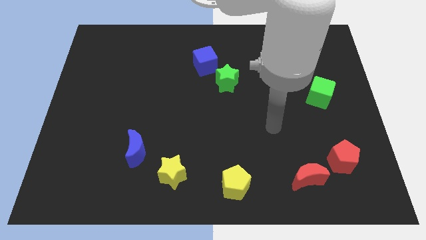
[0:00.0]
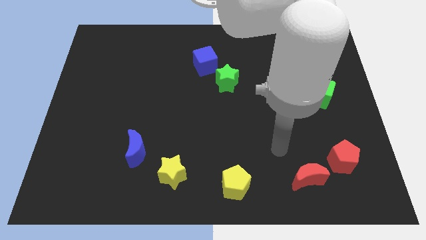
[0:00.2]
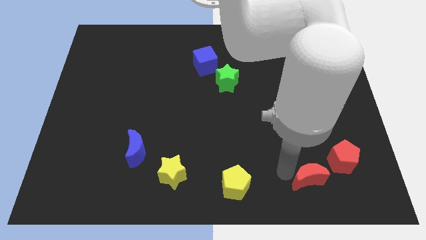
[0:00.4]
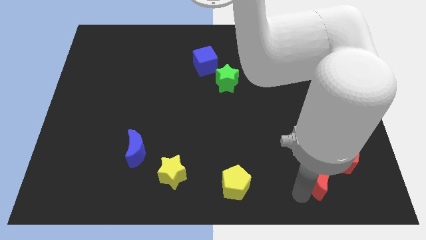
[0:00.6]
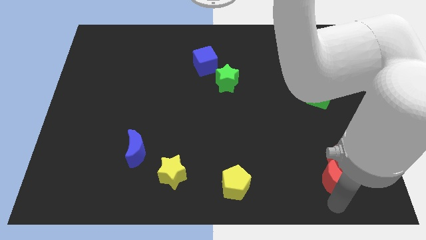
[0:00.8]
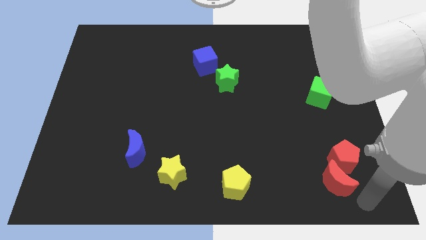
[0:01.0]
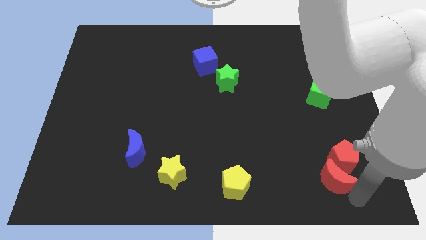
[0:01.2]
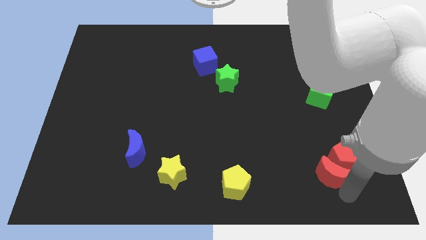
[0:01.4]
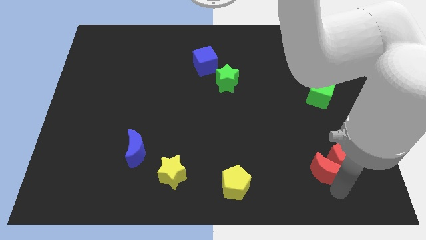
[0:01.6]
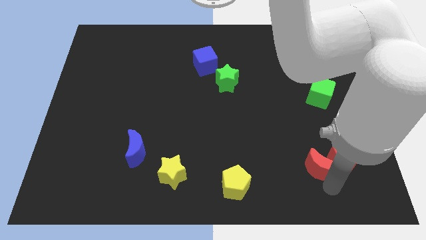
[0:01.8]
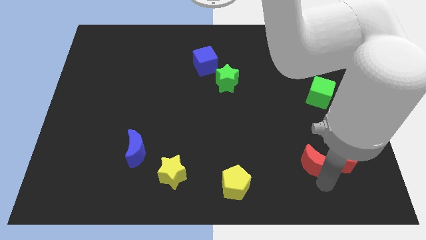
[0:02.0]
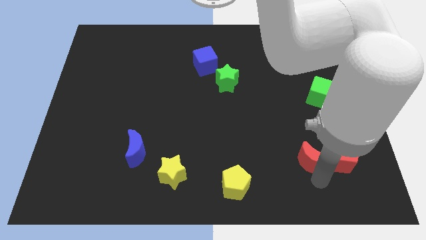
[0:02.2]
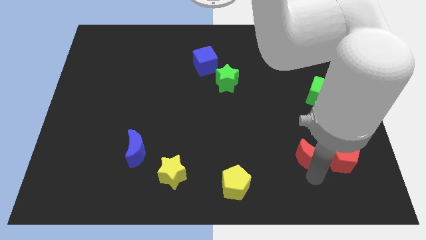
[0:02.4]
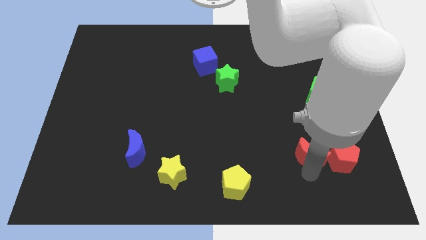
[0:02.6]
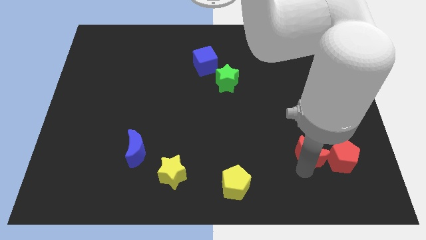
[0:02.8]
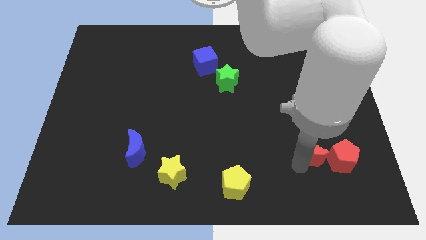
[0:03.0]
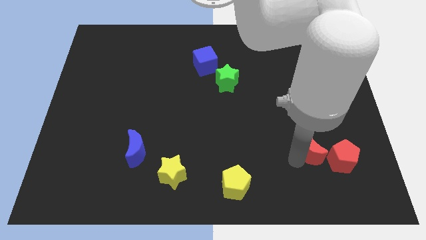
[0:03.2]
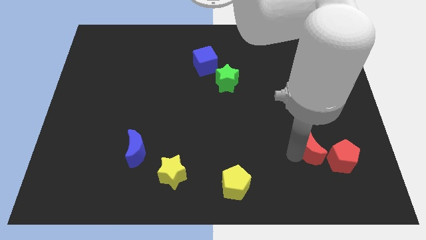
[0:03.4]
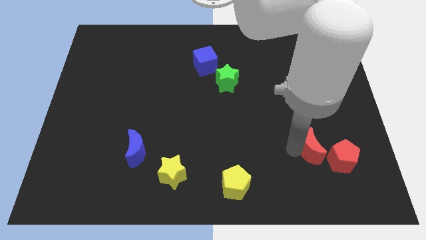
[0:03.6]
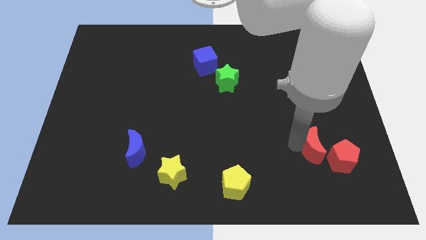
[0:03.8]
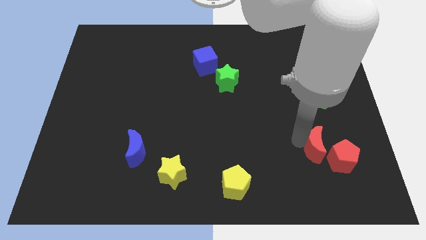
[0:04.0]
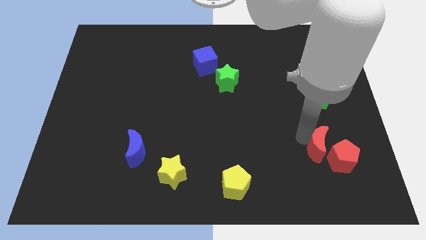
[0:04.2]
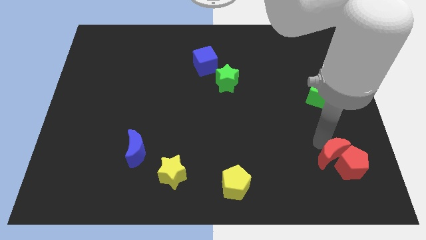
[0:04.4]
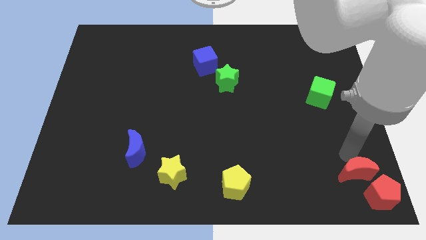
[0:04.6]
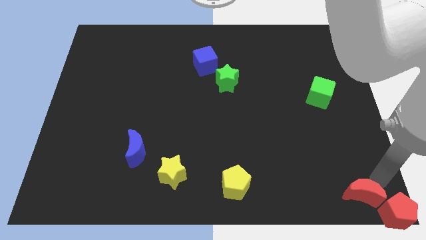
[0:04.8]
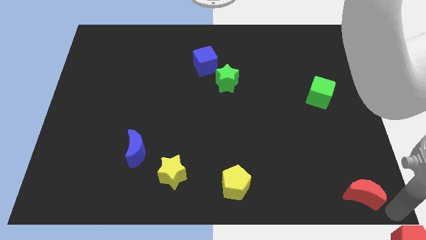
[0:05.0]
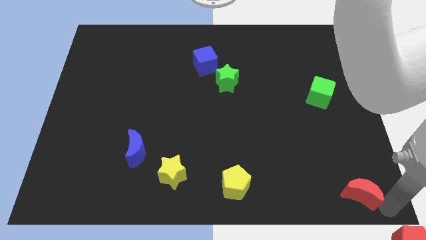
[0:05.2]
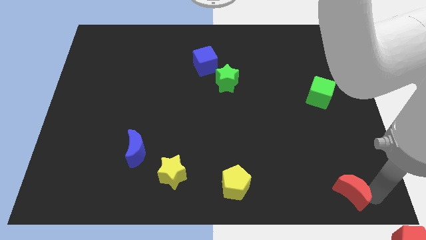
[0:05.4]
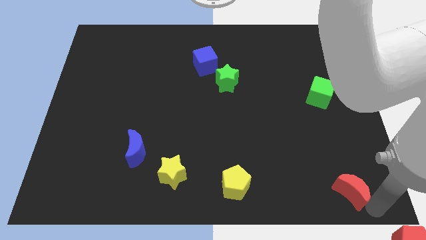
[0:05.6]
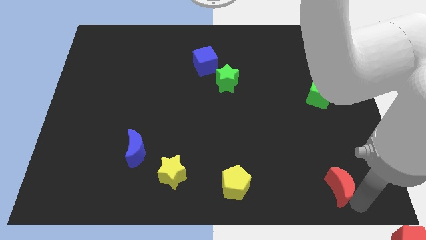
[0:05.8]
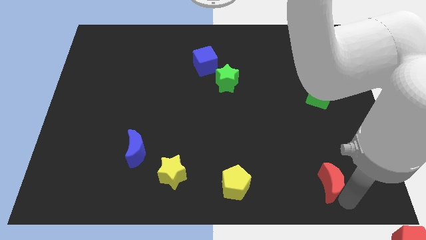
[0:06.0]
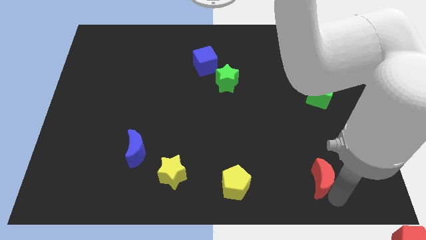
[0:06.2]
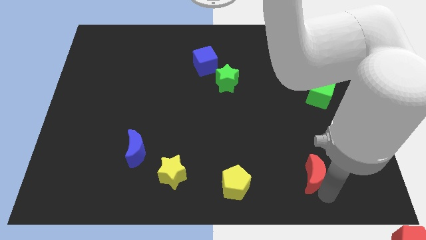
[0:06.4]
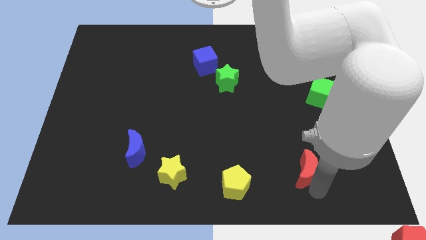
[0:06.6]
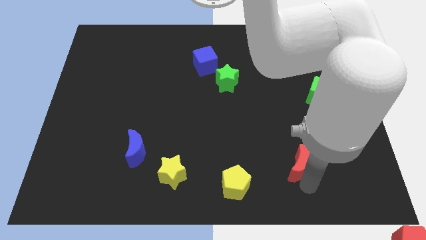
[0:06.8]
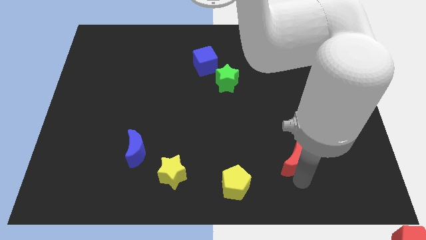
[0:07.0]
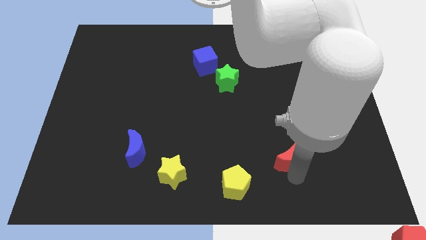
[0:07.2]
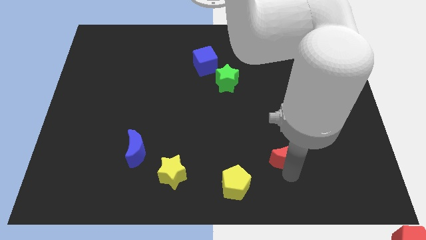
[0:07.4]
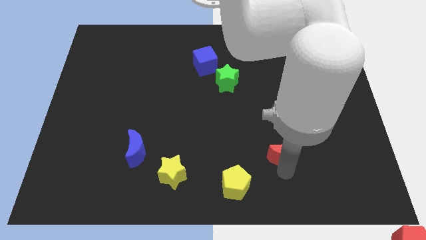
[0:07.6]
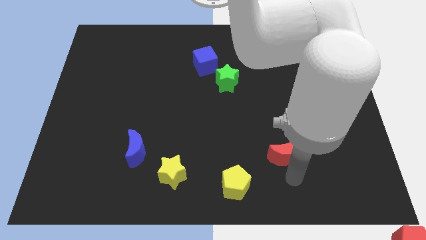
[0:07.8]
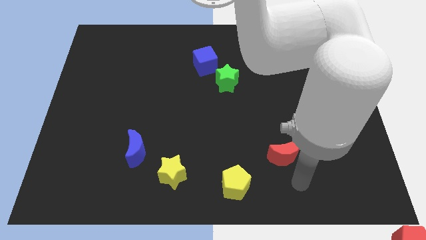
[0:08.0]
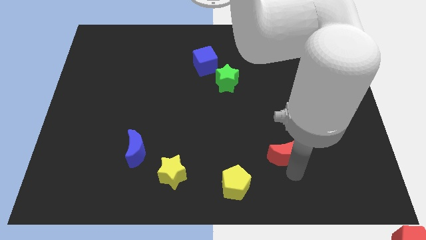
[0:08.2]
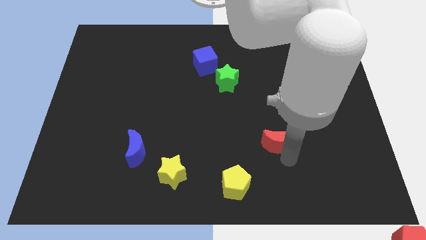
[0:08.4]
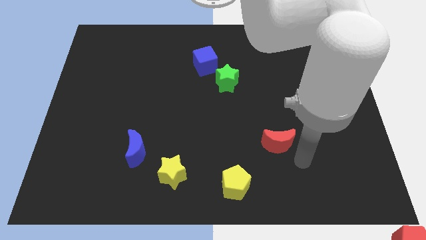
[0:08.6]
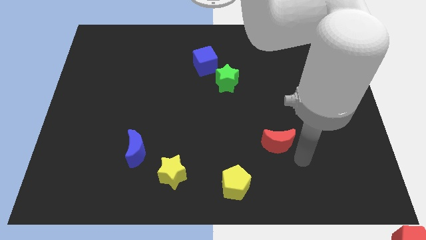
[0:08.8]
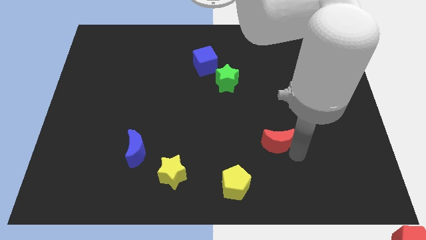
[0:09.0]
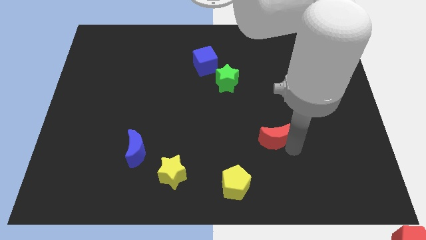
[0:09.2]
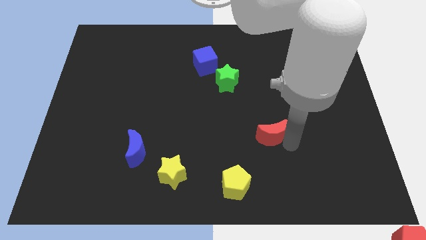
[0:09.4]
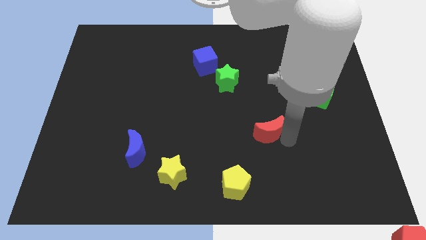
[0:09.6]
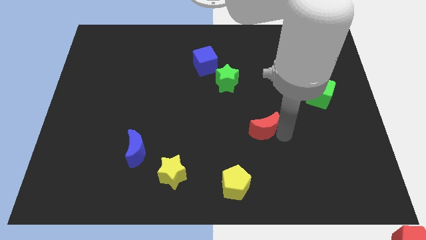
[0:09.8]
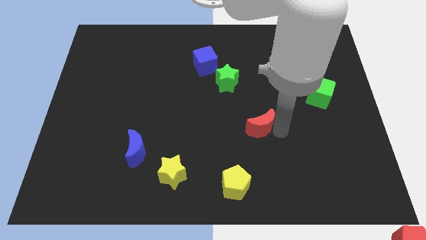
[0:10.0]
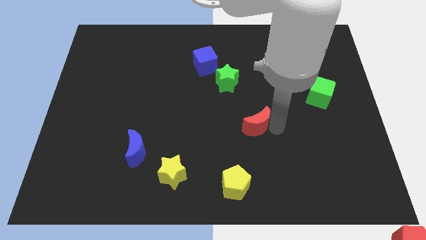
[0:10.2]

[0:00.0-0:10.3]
put the red moon to the middle

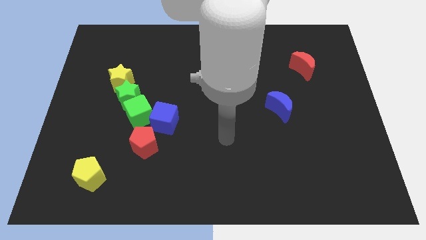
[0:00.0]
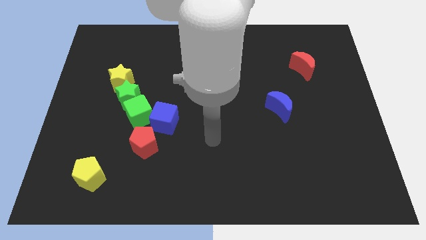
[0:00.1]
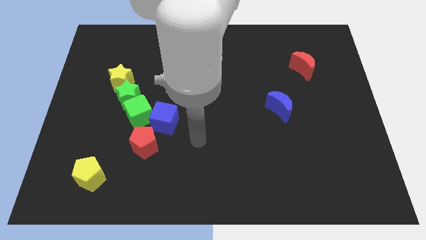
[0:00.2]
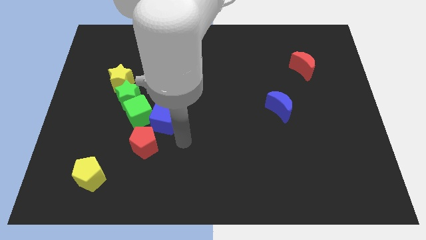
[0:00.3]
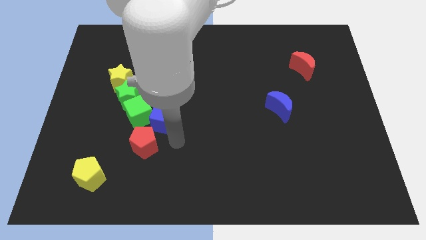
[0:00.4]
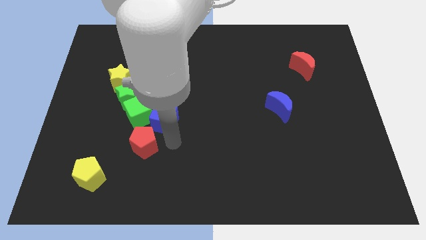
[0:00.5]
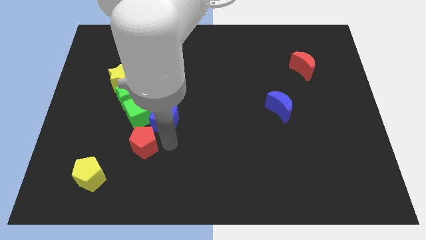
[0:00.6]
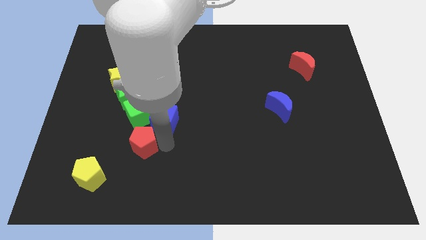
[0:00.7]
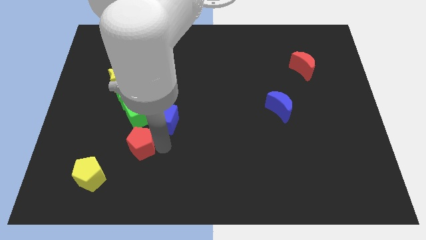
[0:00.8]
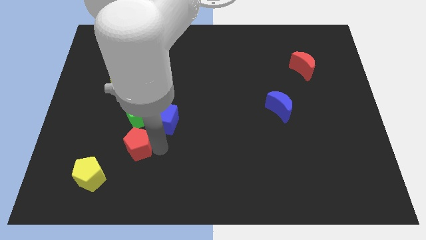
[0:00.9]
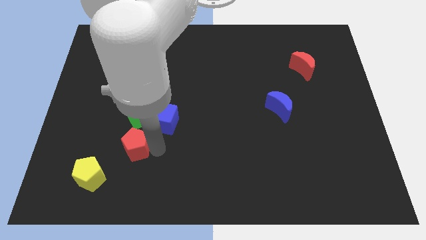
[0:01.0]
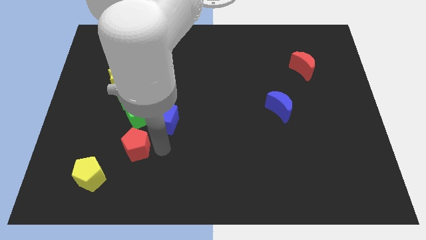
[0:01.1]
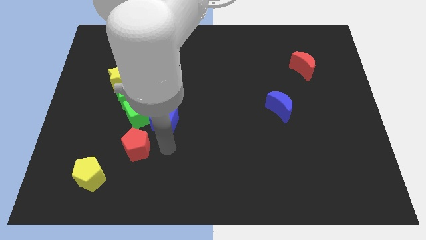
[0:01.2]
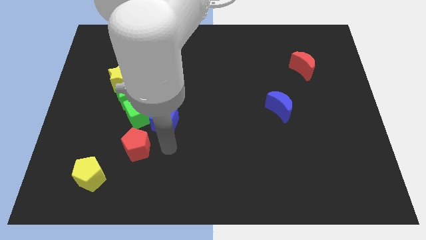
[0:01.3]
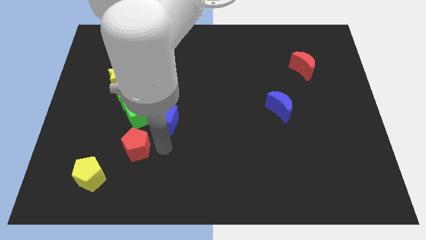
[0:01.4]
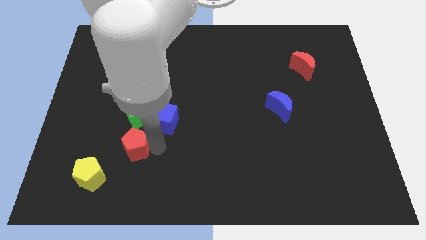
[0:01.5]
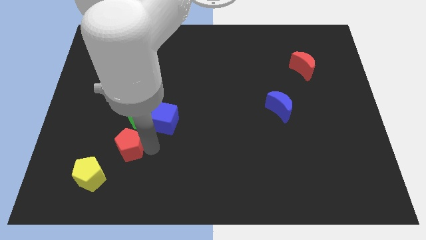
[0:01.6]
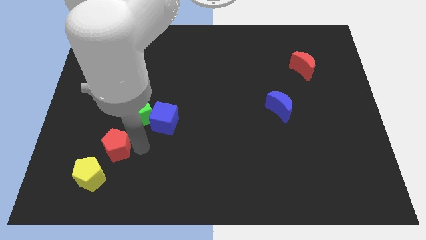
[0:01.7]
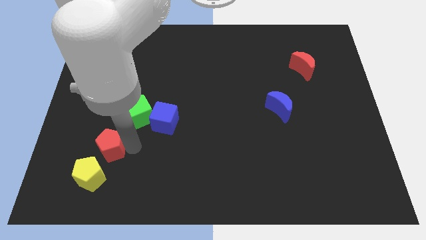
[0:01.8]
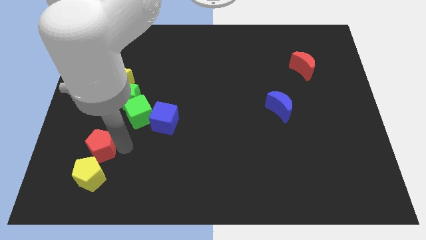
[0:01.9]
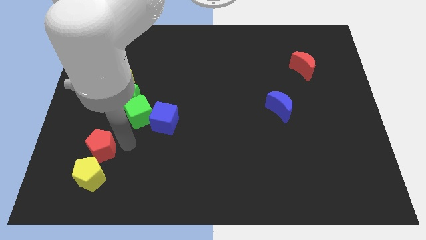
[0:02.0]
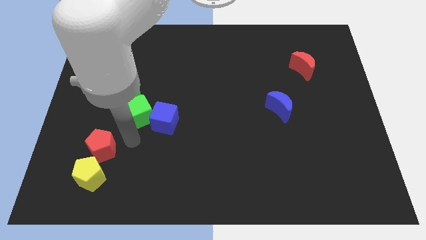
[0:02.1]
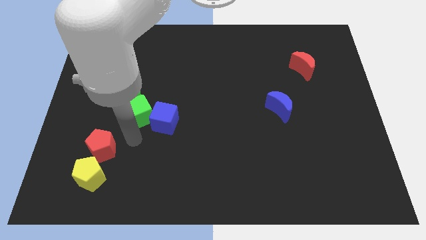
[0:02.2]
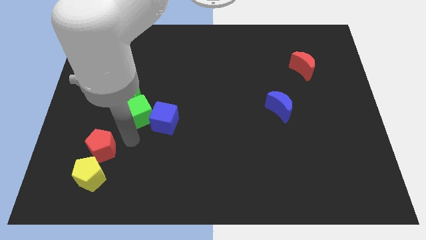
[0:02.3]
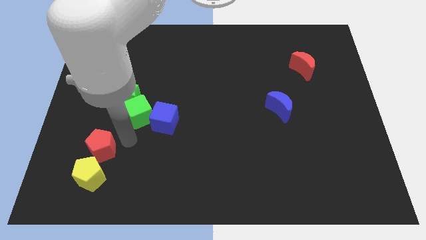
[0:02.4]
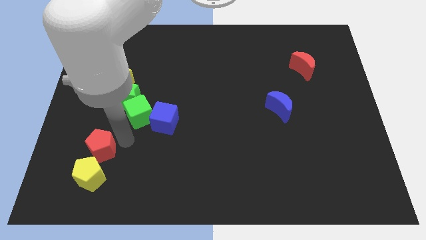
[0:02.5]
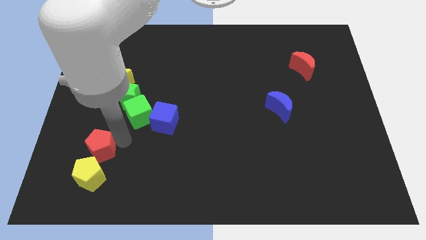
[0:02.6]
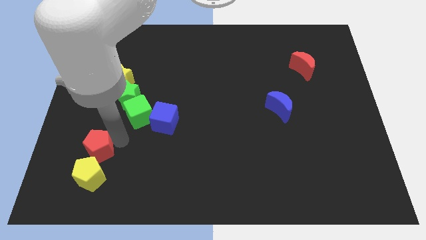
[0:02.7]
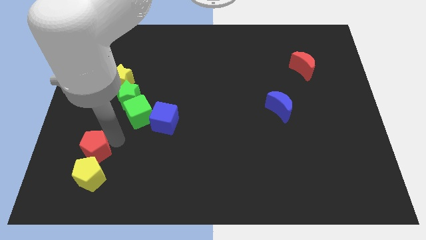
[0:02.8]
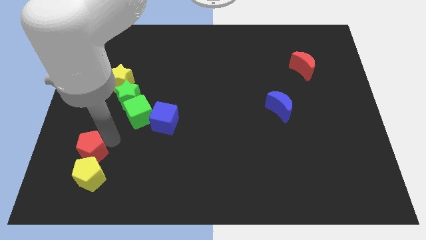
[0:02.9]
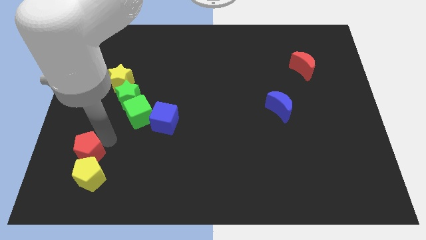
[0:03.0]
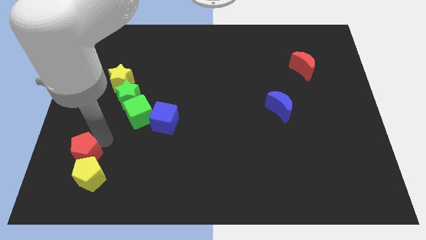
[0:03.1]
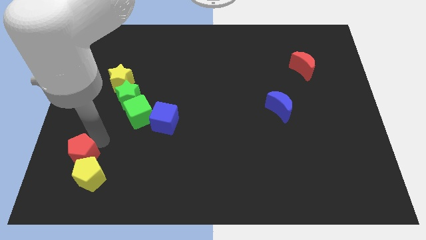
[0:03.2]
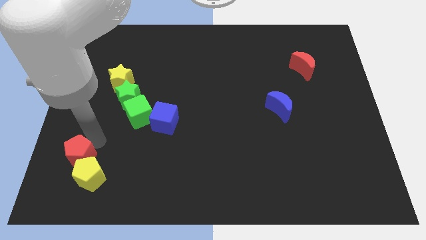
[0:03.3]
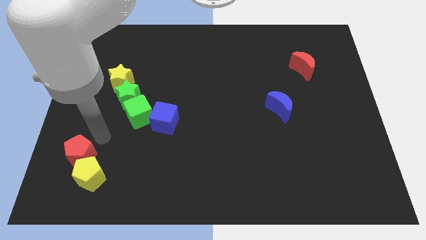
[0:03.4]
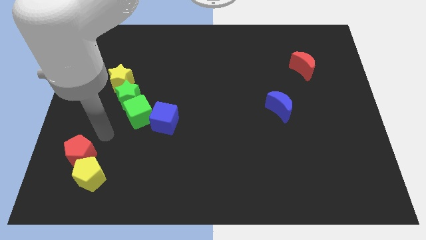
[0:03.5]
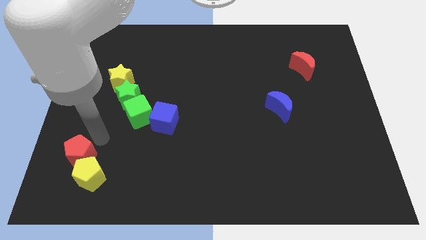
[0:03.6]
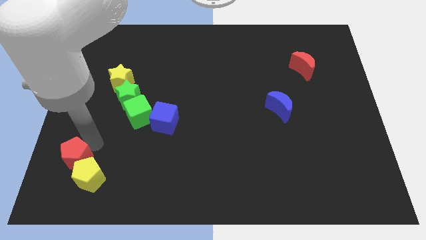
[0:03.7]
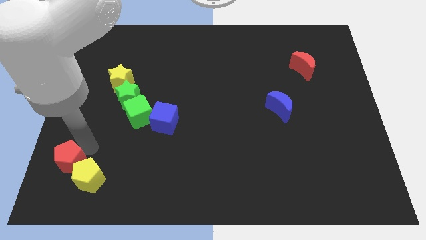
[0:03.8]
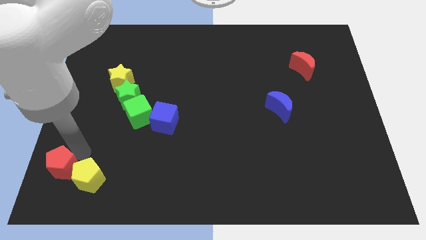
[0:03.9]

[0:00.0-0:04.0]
move the red pentagon to the bottom left of the board
